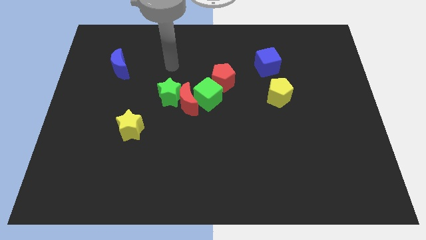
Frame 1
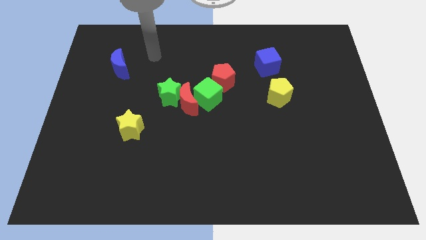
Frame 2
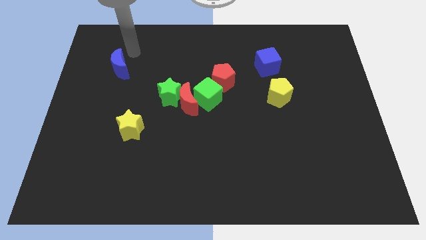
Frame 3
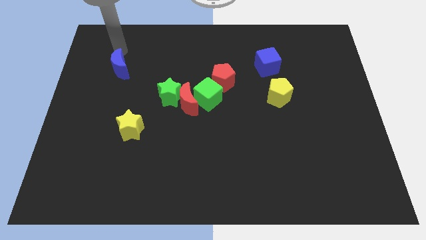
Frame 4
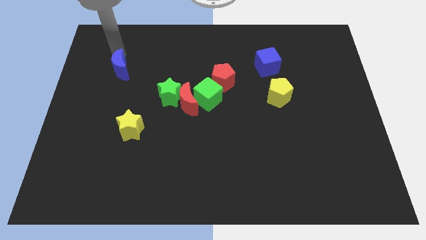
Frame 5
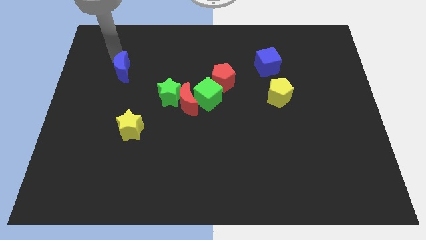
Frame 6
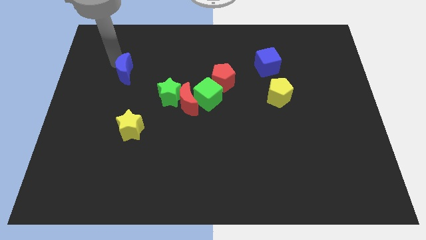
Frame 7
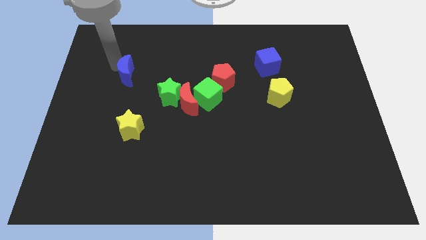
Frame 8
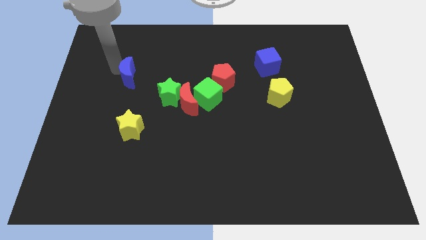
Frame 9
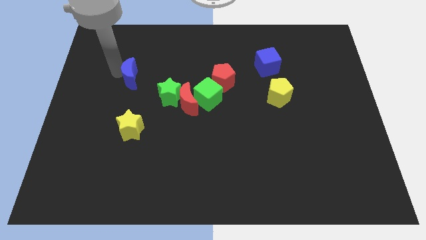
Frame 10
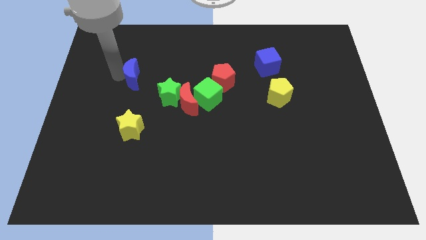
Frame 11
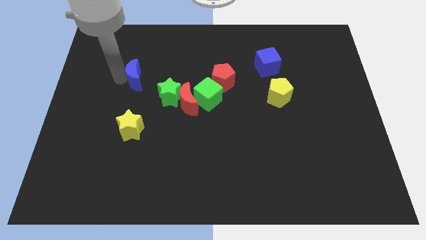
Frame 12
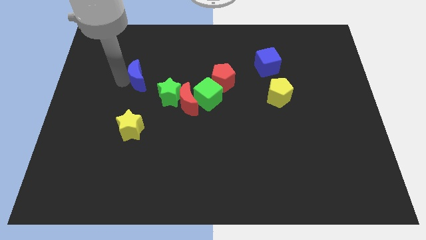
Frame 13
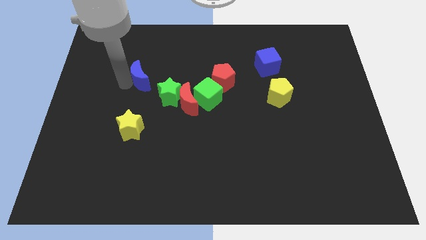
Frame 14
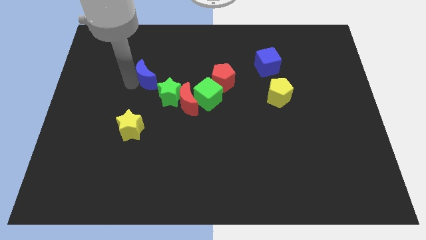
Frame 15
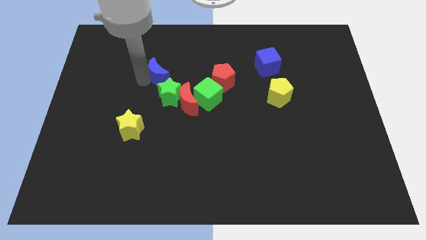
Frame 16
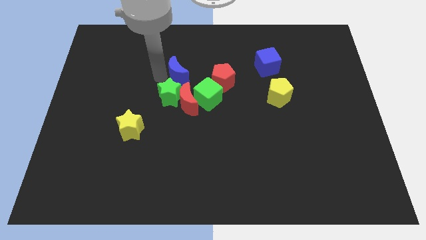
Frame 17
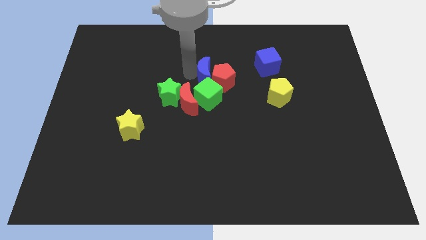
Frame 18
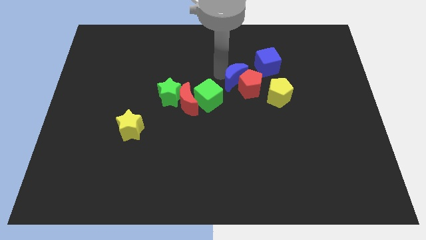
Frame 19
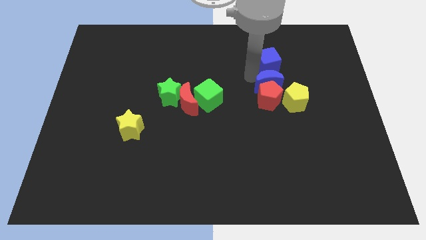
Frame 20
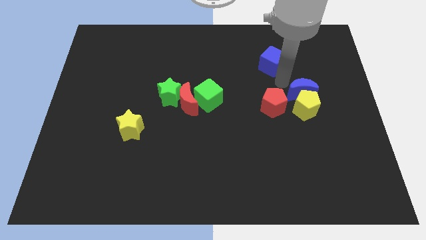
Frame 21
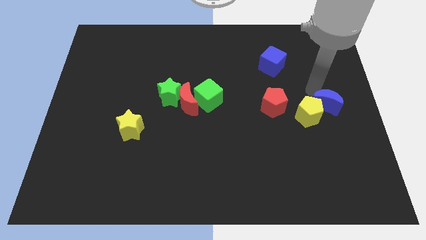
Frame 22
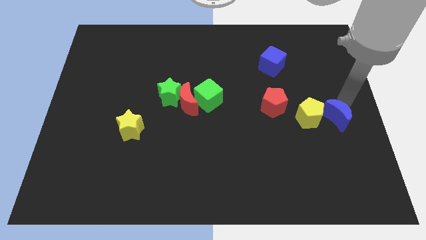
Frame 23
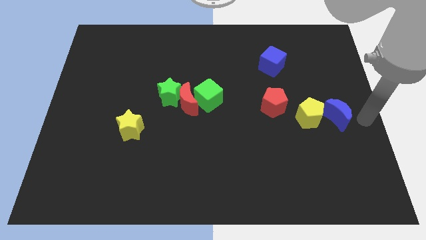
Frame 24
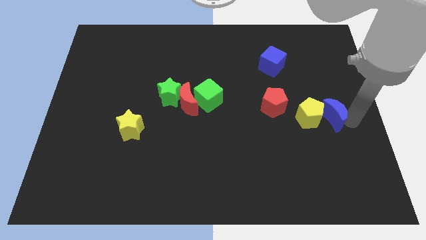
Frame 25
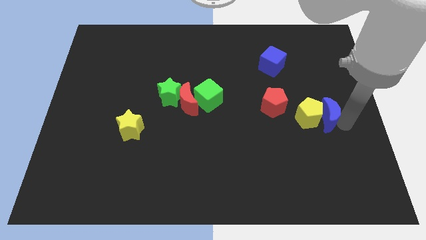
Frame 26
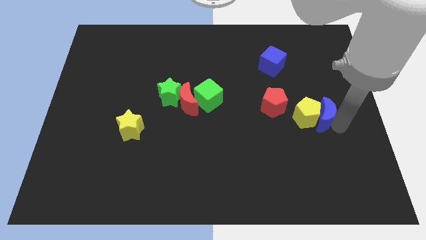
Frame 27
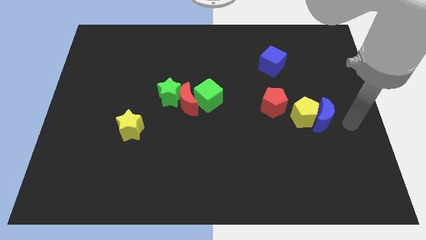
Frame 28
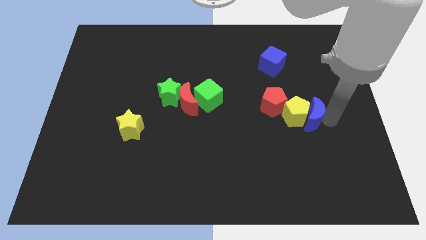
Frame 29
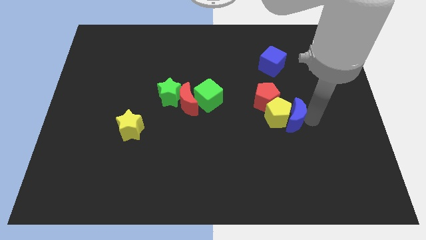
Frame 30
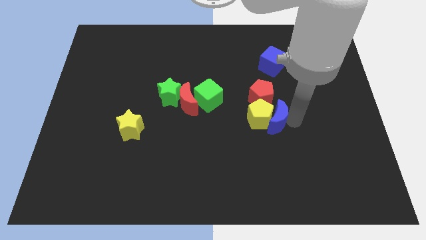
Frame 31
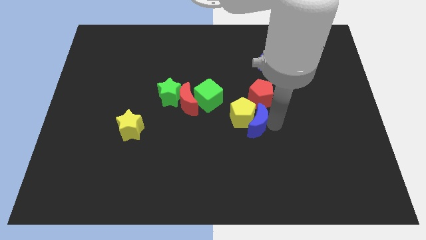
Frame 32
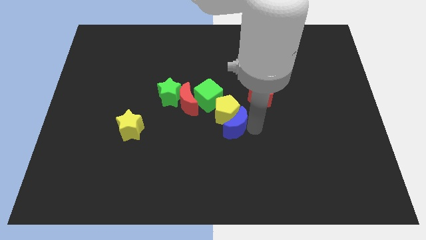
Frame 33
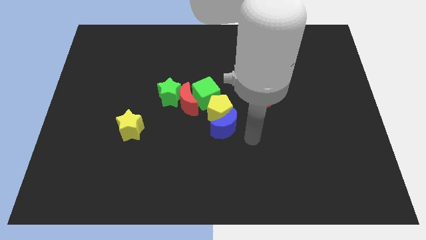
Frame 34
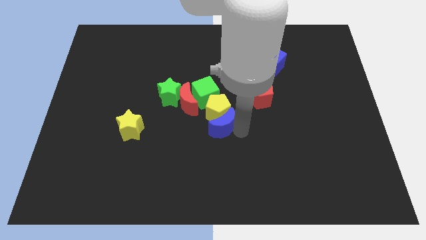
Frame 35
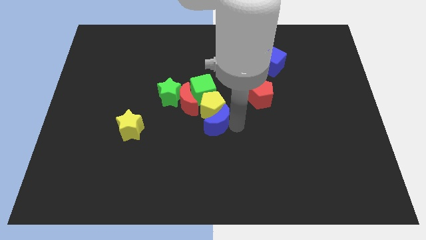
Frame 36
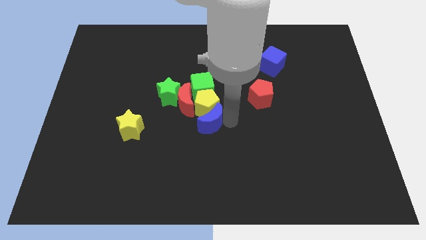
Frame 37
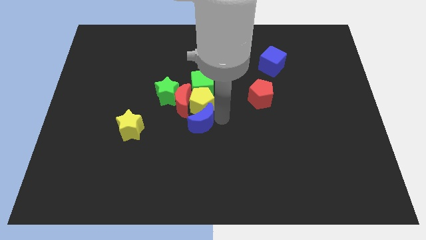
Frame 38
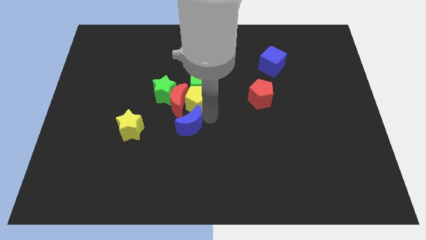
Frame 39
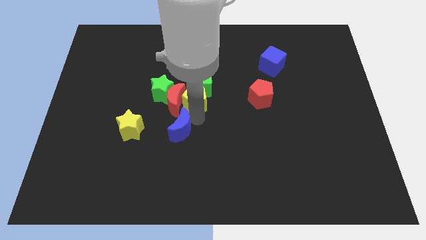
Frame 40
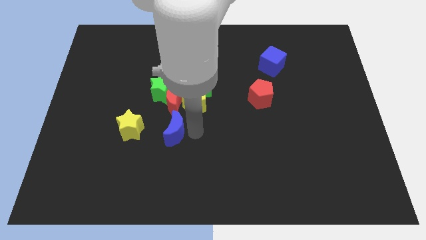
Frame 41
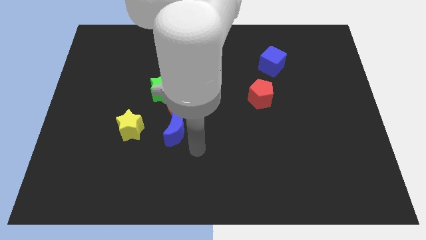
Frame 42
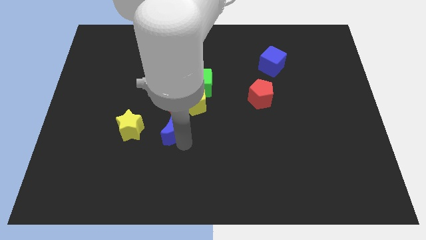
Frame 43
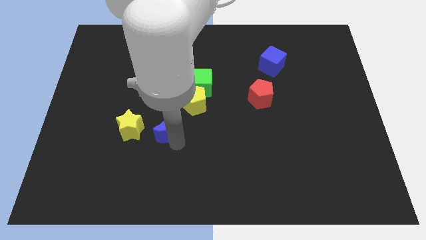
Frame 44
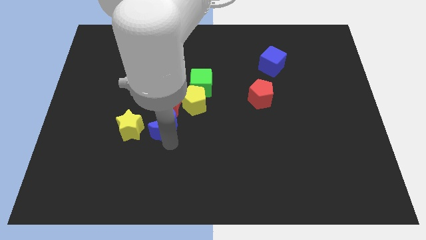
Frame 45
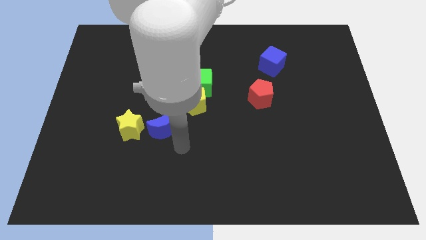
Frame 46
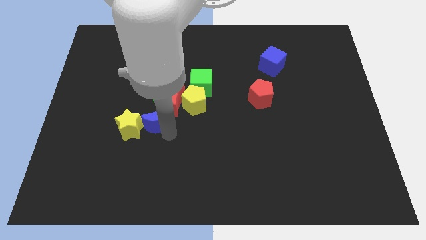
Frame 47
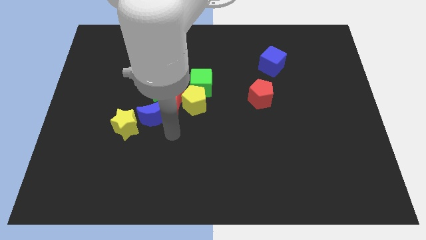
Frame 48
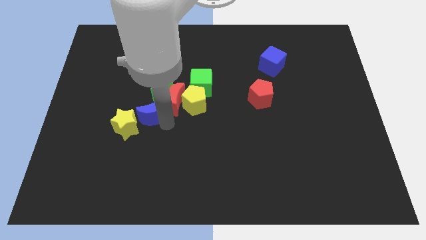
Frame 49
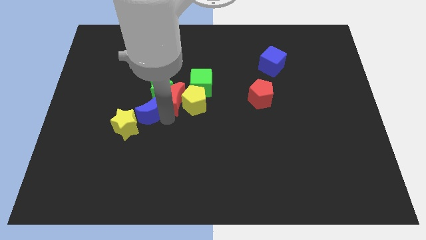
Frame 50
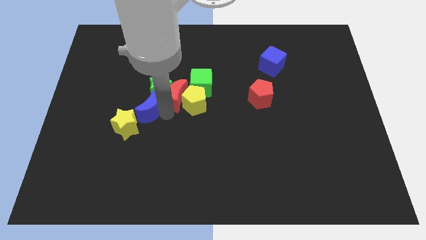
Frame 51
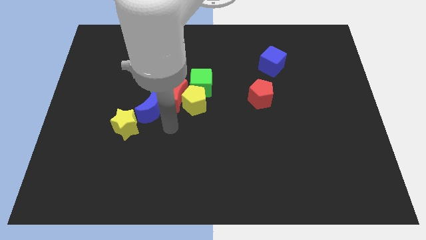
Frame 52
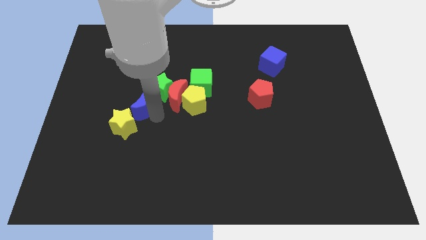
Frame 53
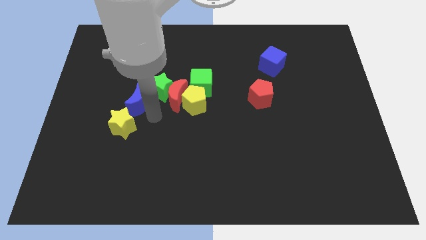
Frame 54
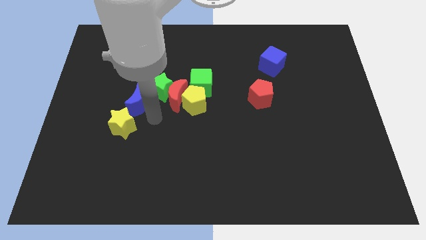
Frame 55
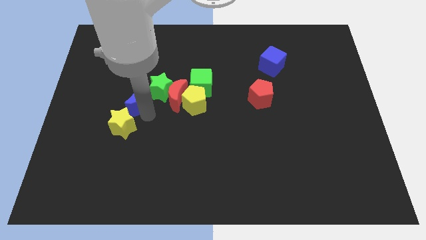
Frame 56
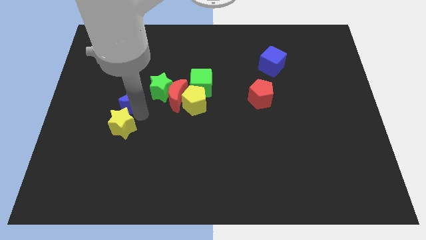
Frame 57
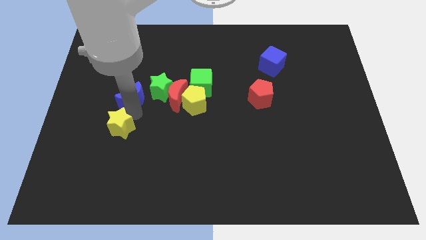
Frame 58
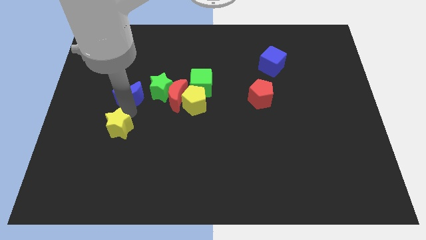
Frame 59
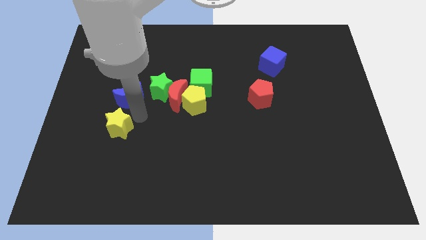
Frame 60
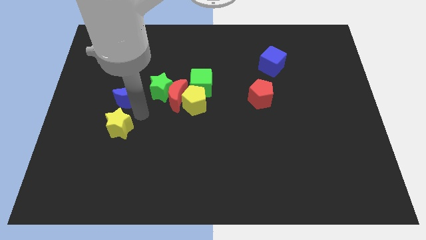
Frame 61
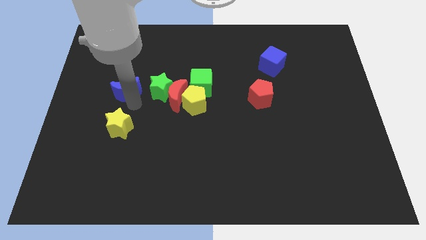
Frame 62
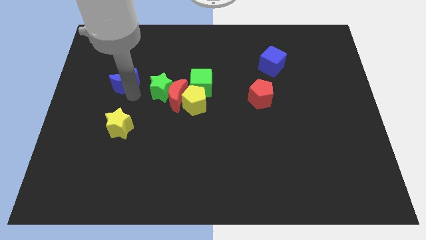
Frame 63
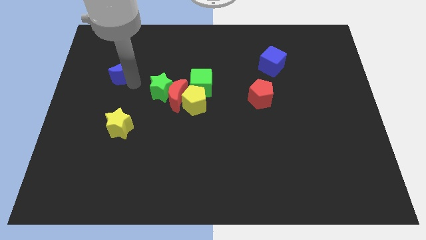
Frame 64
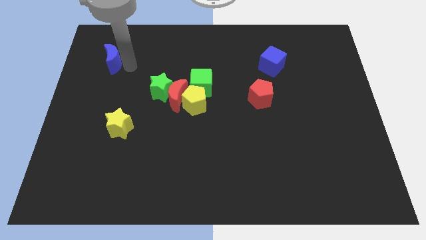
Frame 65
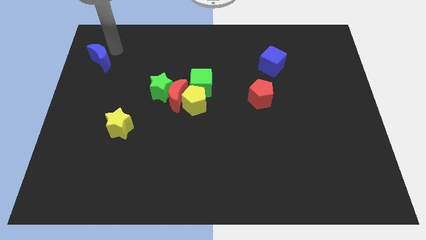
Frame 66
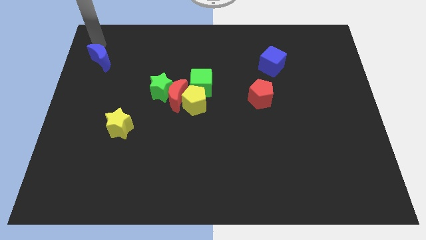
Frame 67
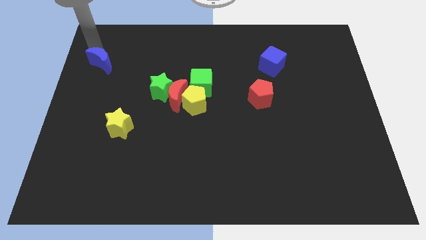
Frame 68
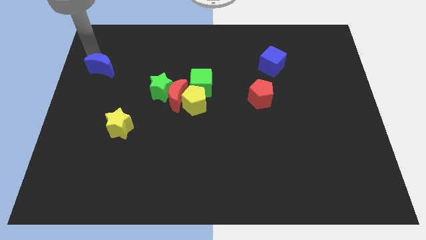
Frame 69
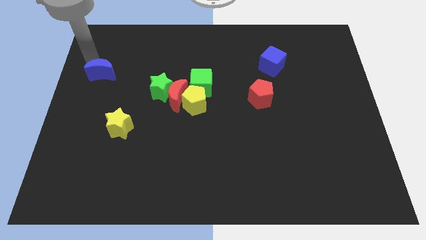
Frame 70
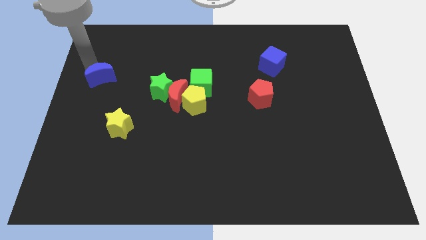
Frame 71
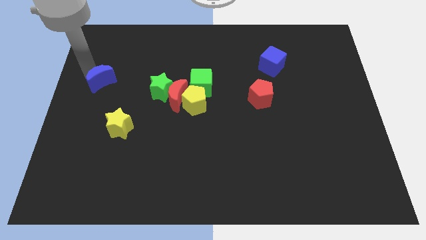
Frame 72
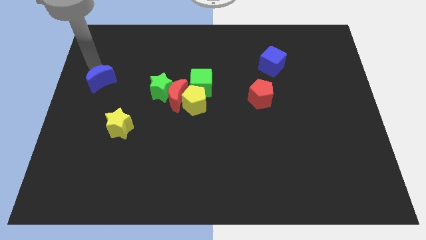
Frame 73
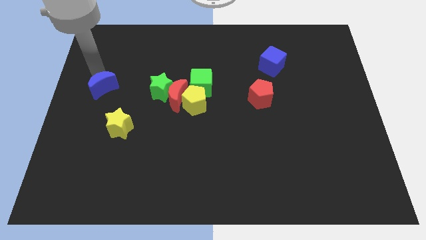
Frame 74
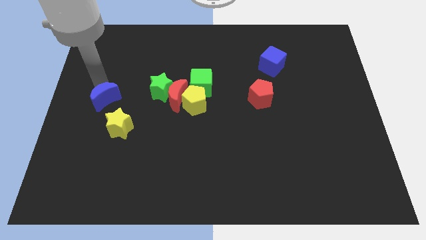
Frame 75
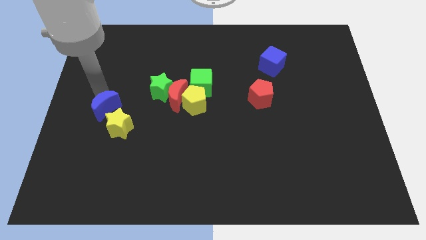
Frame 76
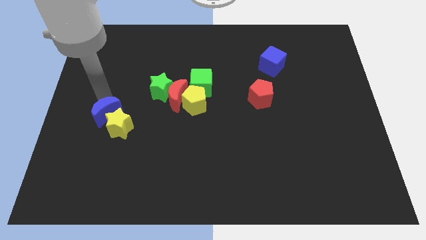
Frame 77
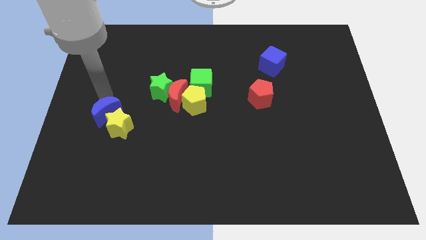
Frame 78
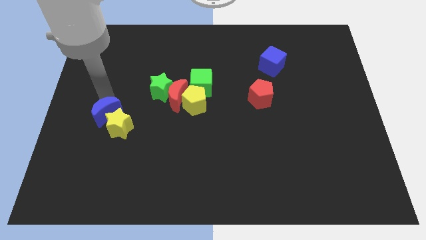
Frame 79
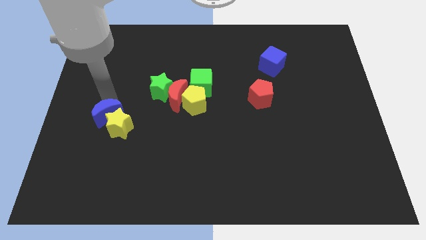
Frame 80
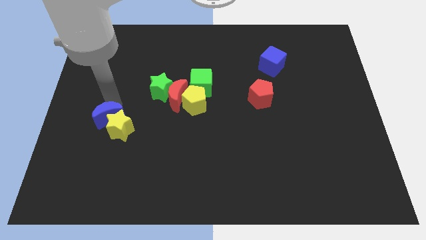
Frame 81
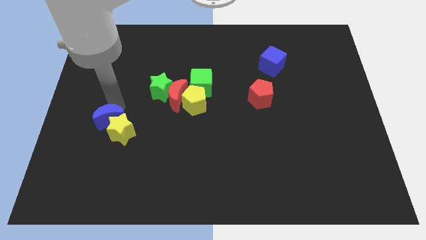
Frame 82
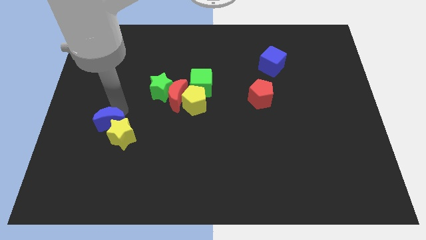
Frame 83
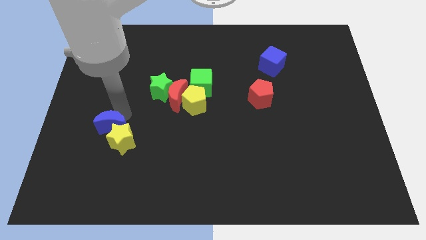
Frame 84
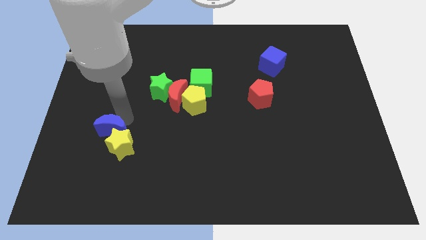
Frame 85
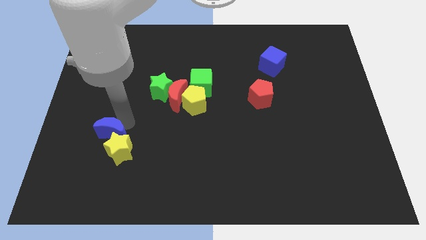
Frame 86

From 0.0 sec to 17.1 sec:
move the blue moon downwards
